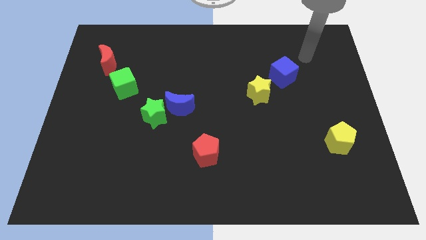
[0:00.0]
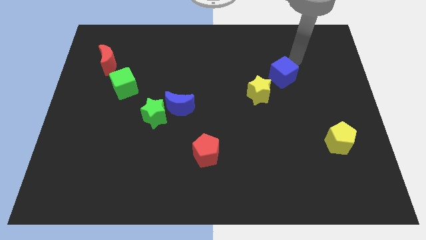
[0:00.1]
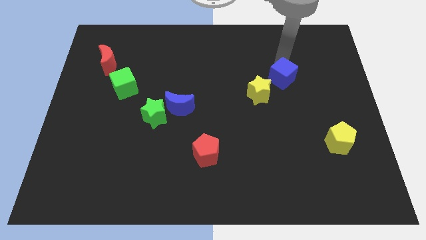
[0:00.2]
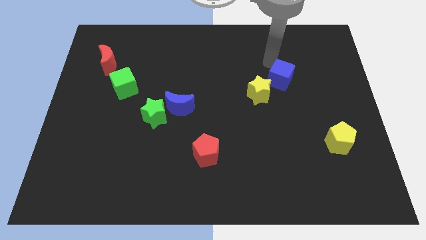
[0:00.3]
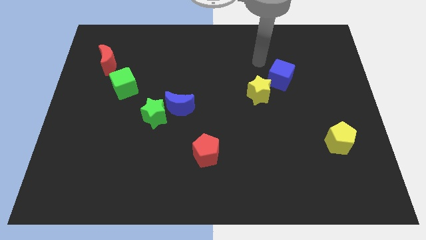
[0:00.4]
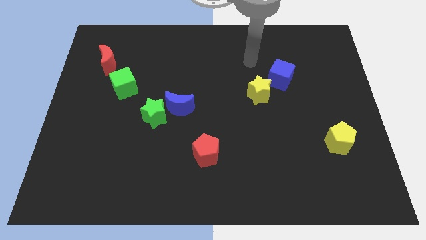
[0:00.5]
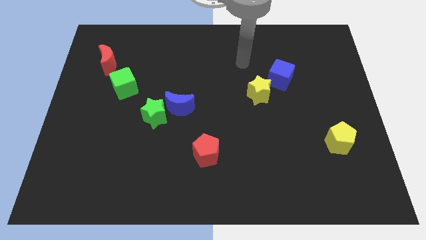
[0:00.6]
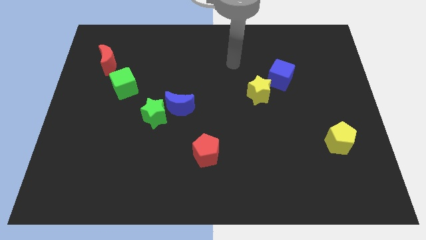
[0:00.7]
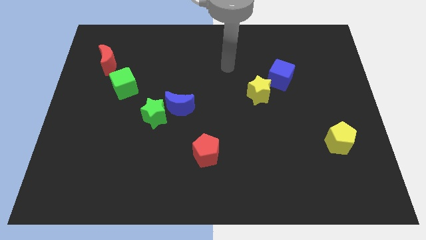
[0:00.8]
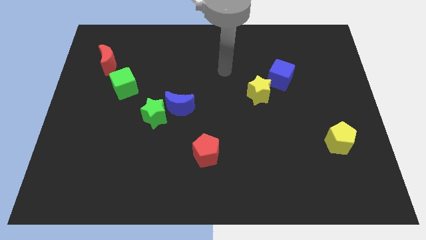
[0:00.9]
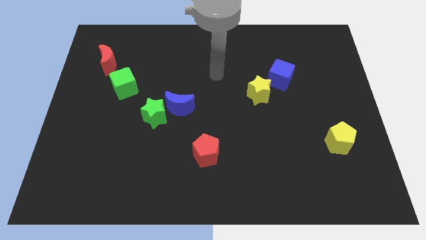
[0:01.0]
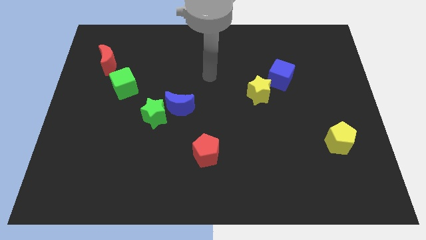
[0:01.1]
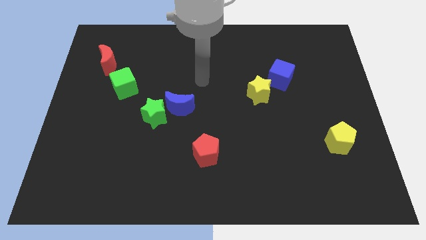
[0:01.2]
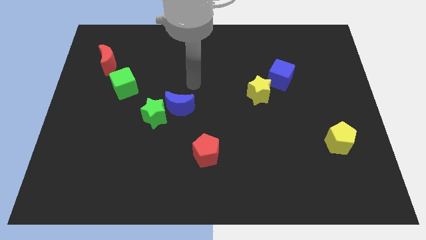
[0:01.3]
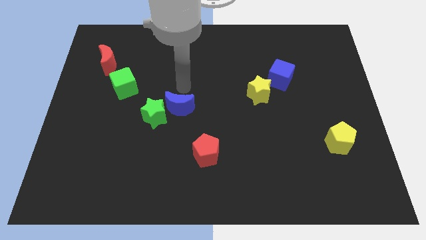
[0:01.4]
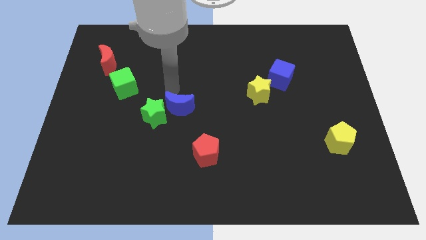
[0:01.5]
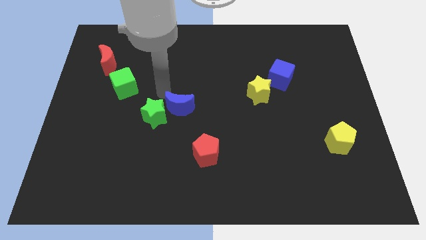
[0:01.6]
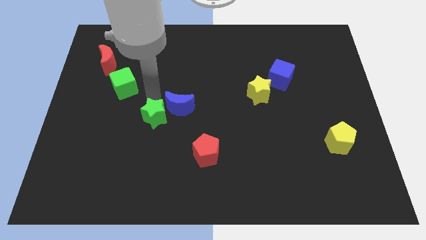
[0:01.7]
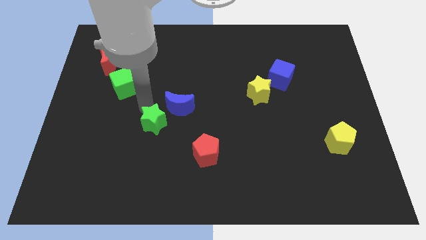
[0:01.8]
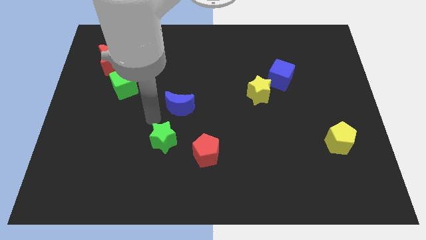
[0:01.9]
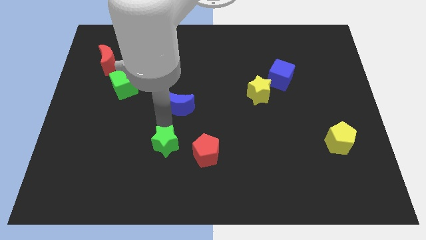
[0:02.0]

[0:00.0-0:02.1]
pull the blue moon apart from the green star

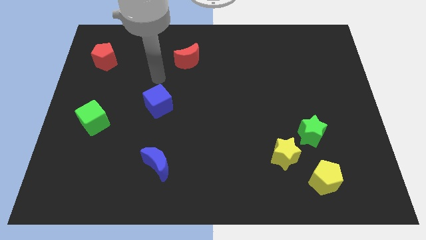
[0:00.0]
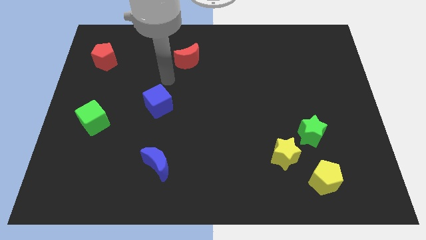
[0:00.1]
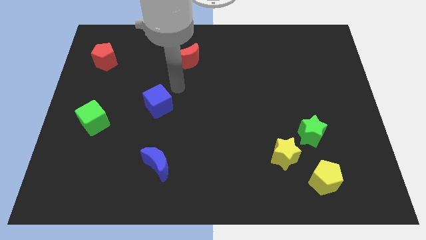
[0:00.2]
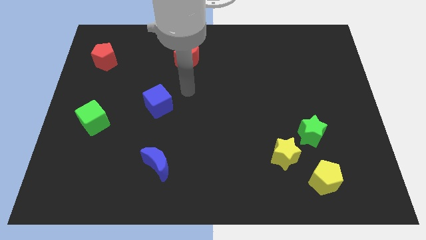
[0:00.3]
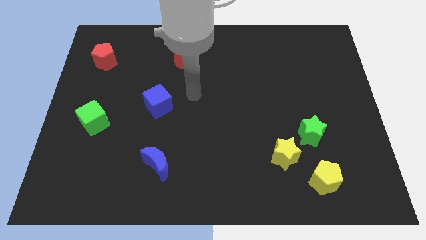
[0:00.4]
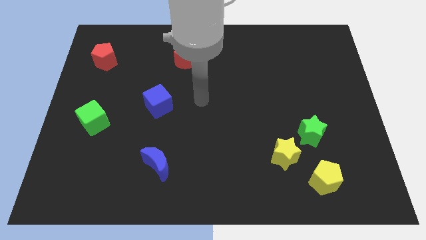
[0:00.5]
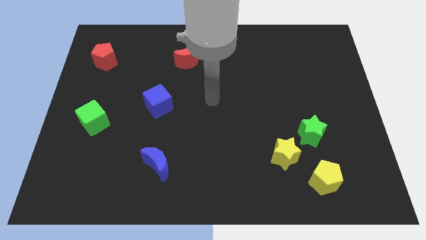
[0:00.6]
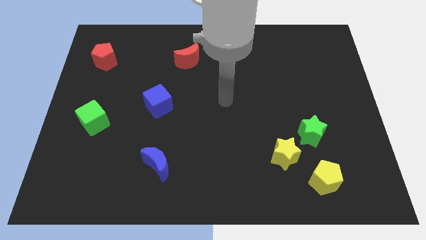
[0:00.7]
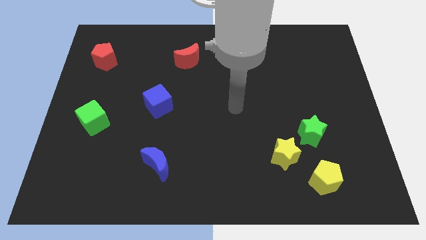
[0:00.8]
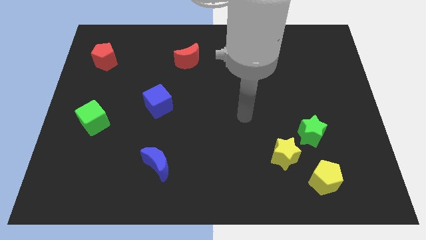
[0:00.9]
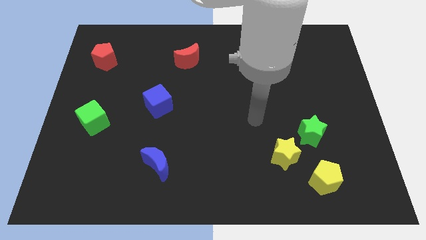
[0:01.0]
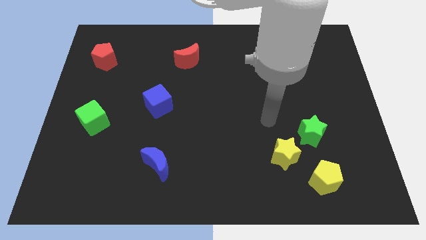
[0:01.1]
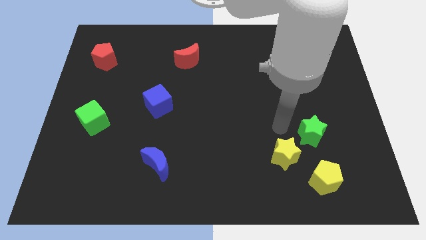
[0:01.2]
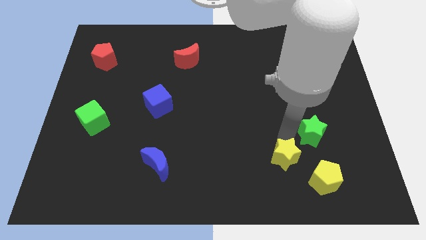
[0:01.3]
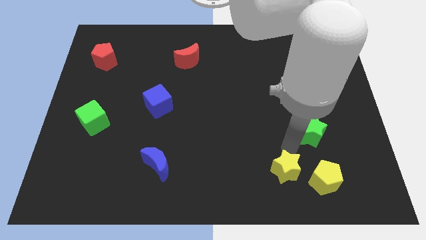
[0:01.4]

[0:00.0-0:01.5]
separate the green star from the yellow star

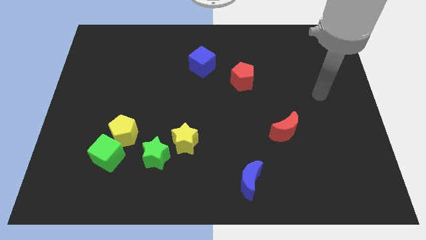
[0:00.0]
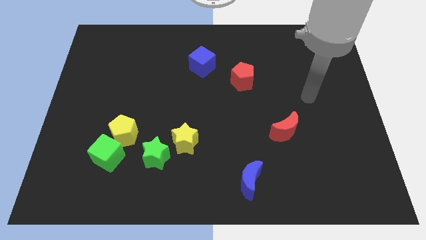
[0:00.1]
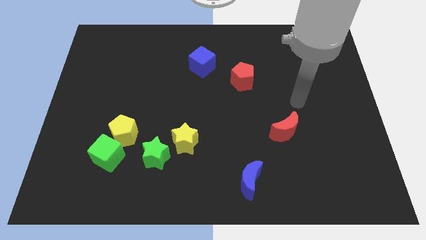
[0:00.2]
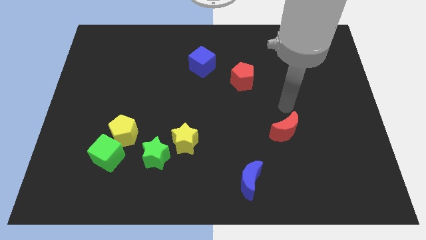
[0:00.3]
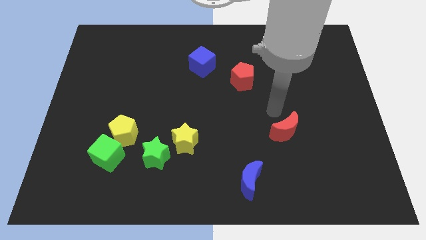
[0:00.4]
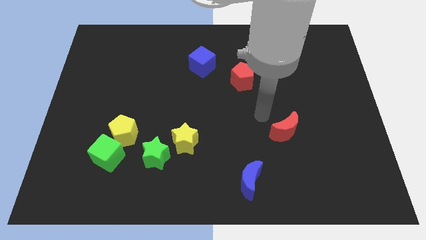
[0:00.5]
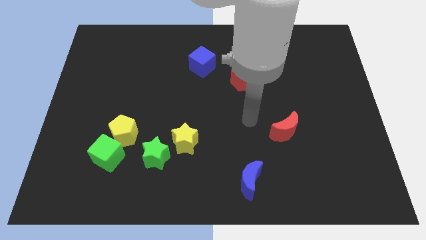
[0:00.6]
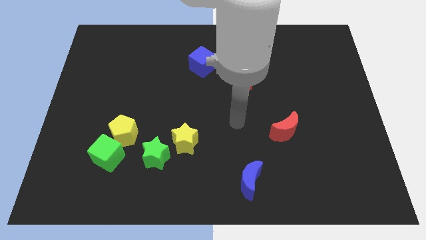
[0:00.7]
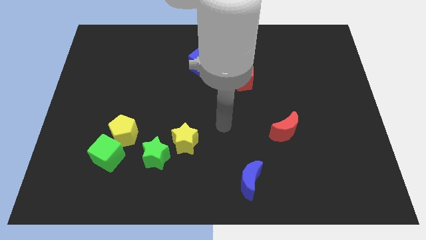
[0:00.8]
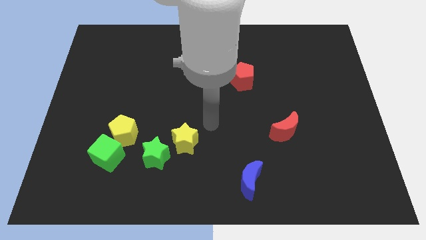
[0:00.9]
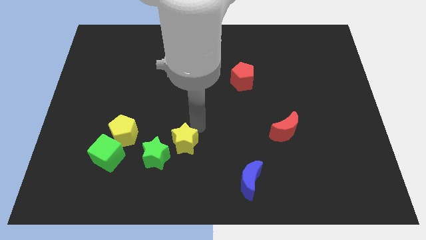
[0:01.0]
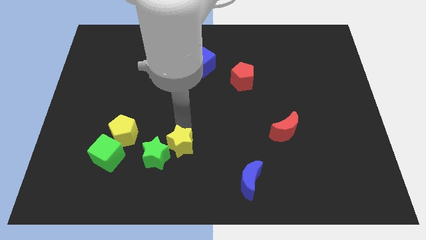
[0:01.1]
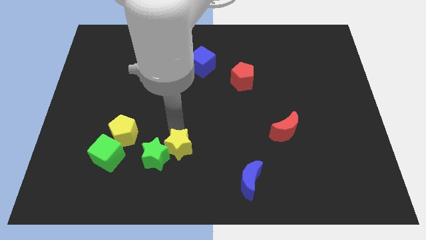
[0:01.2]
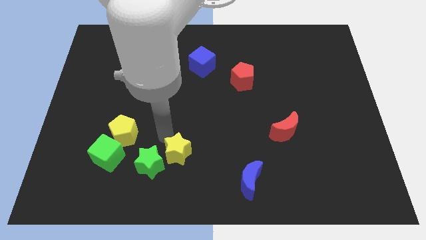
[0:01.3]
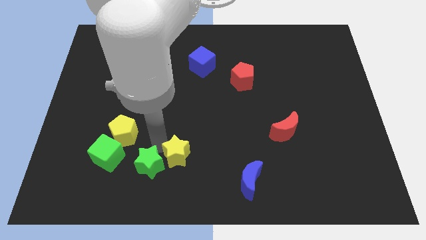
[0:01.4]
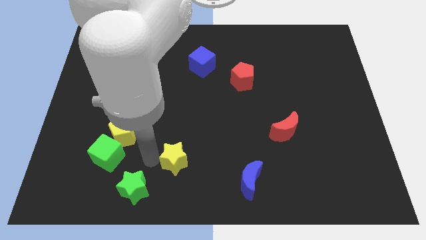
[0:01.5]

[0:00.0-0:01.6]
move the yellow star away from the green star

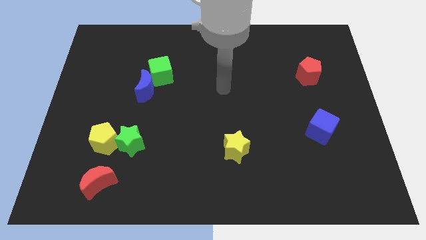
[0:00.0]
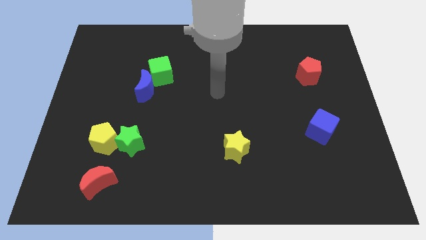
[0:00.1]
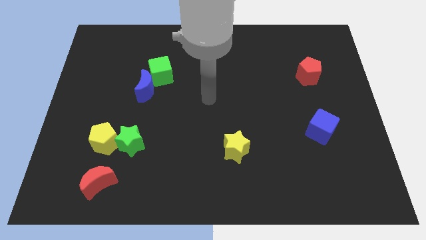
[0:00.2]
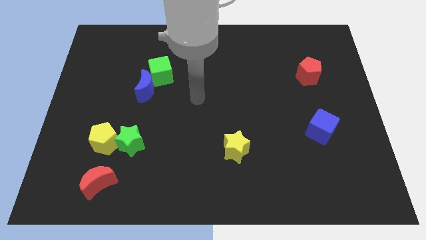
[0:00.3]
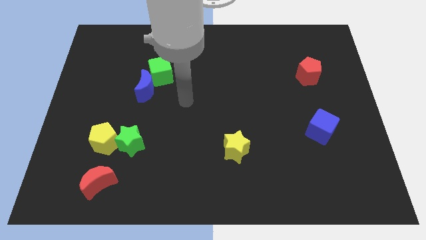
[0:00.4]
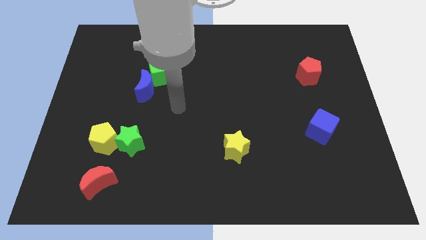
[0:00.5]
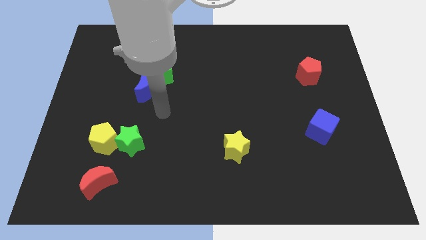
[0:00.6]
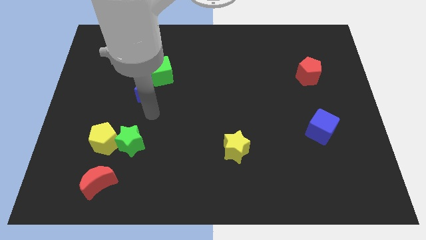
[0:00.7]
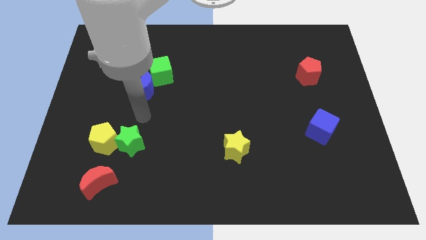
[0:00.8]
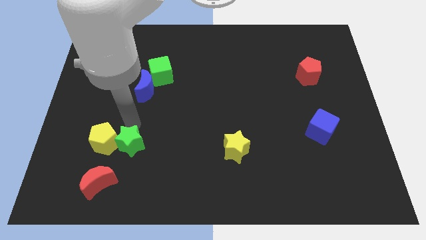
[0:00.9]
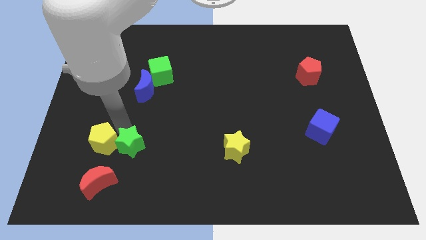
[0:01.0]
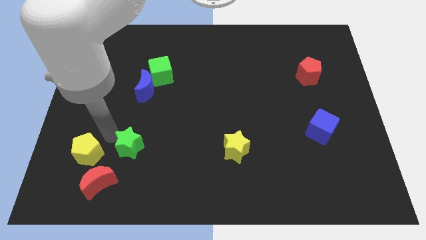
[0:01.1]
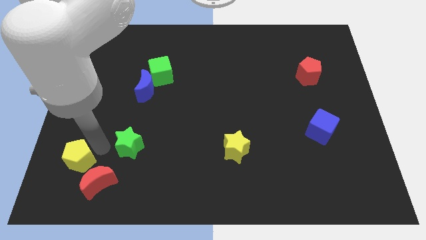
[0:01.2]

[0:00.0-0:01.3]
pull the green star apart from the yellow pentagon

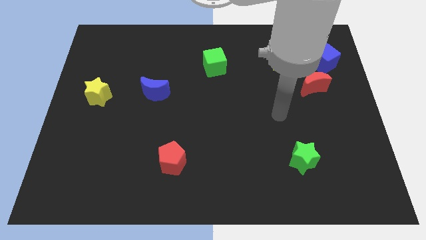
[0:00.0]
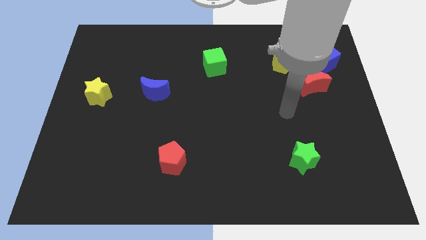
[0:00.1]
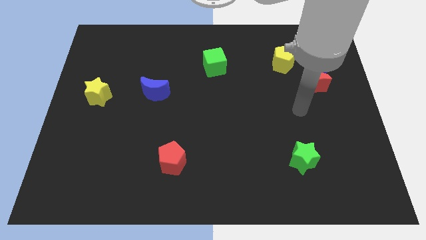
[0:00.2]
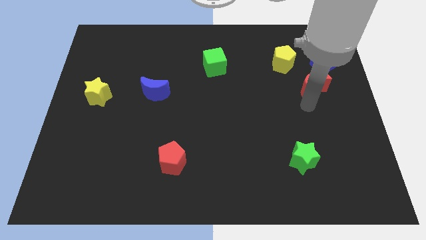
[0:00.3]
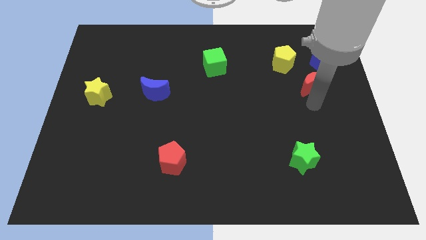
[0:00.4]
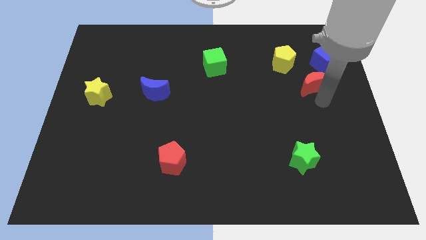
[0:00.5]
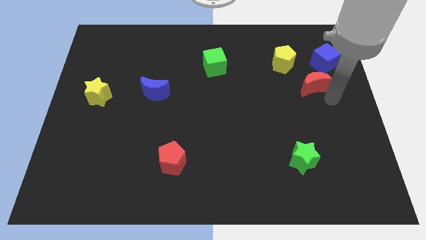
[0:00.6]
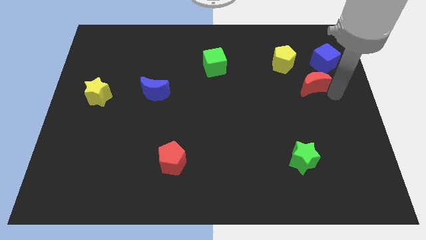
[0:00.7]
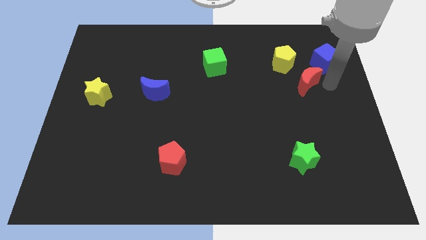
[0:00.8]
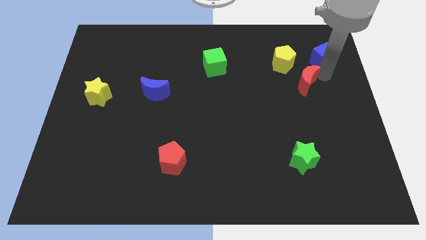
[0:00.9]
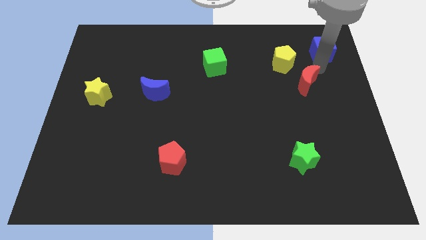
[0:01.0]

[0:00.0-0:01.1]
separate the red moon from the blue cube

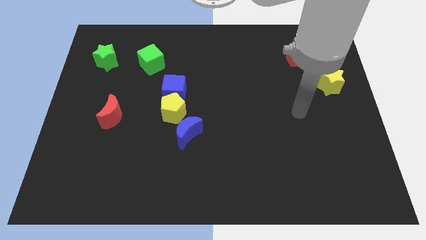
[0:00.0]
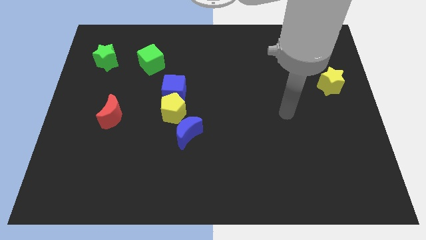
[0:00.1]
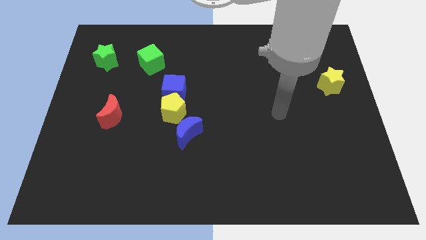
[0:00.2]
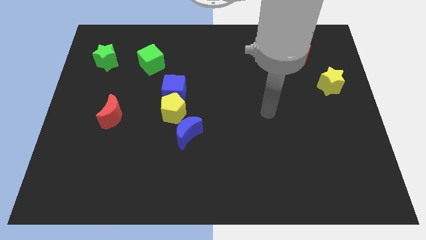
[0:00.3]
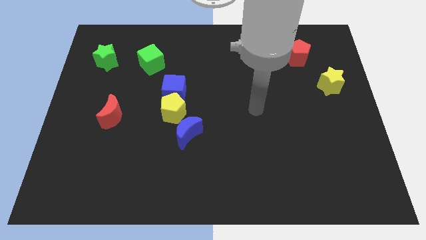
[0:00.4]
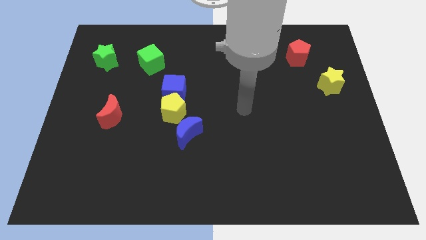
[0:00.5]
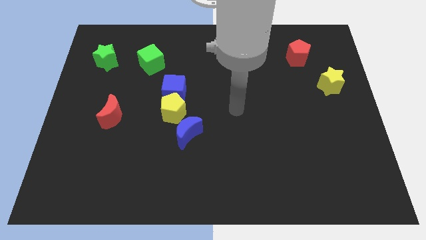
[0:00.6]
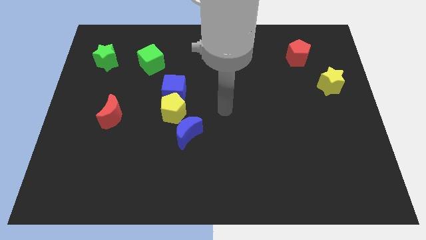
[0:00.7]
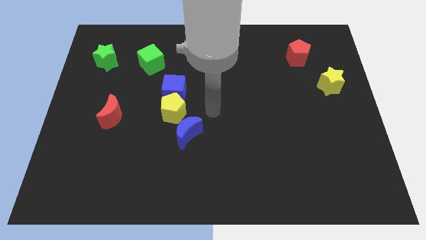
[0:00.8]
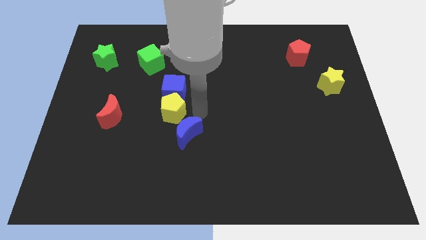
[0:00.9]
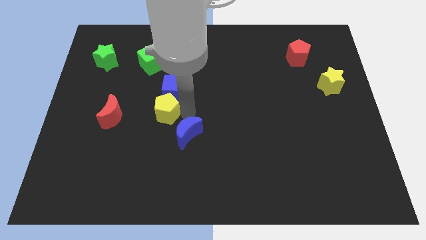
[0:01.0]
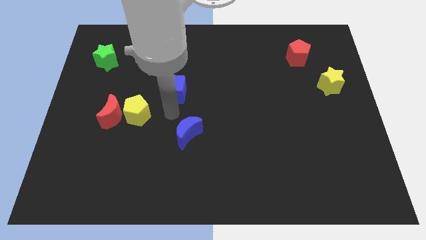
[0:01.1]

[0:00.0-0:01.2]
move the blue cube away from the yellow pentagon

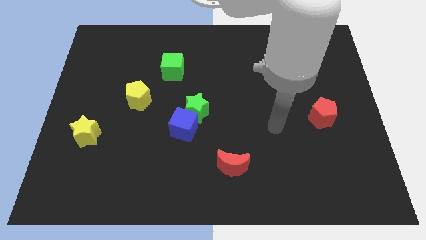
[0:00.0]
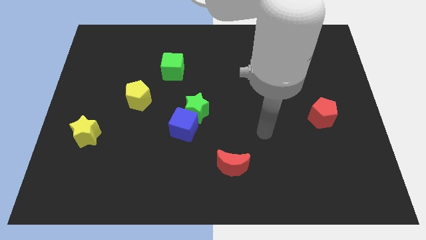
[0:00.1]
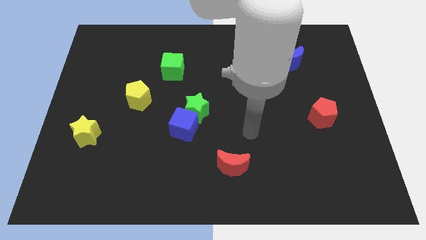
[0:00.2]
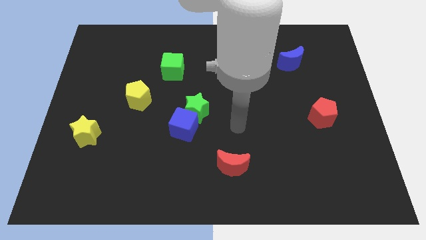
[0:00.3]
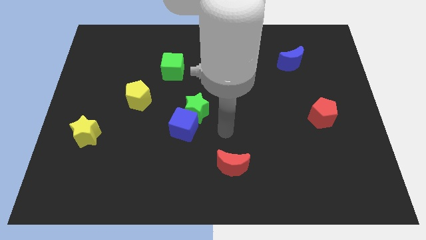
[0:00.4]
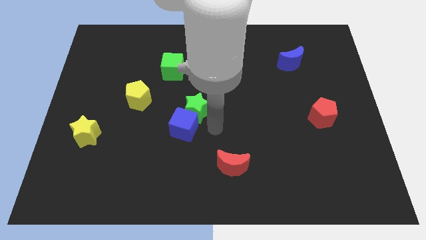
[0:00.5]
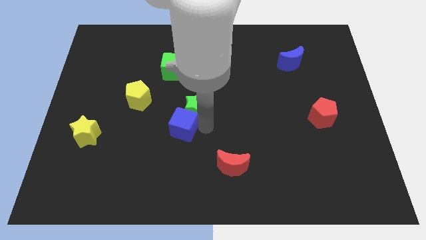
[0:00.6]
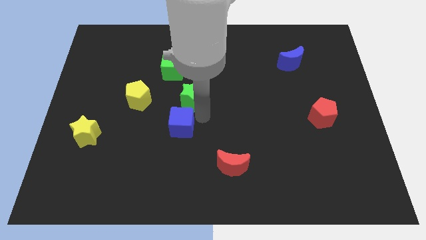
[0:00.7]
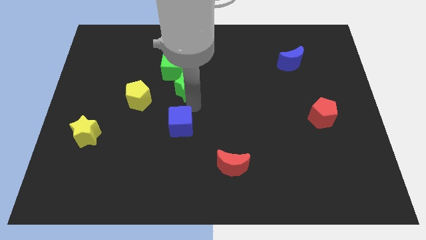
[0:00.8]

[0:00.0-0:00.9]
separate the blue cube from the green star
